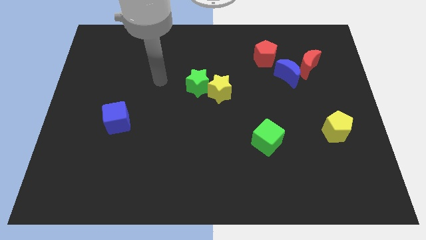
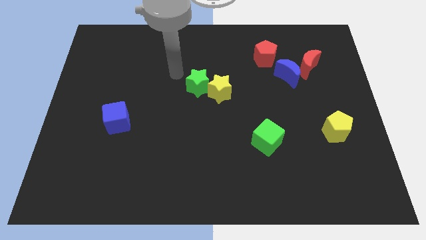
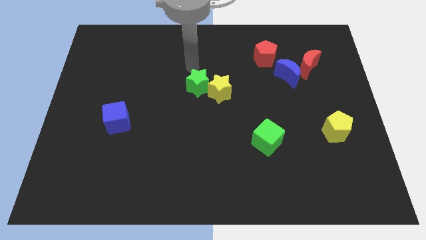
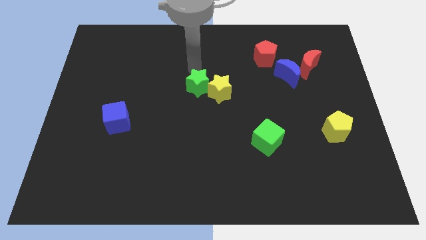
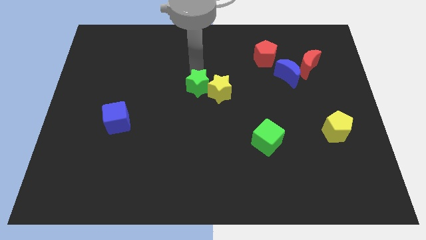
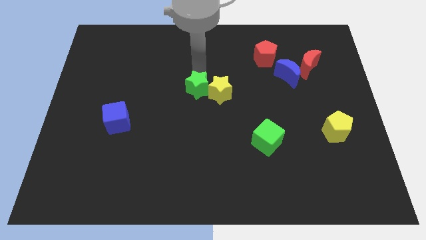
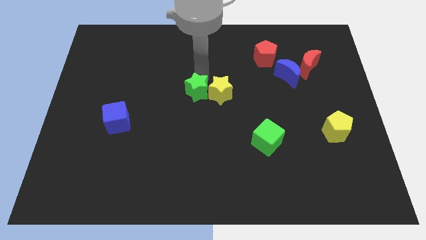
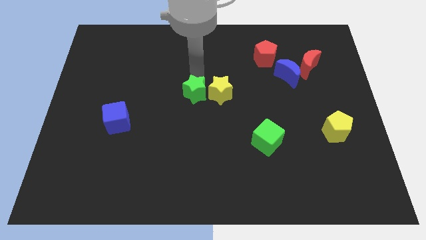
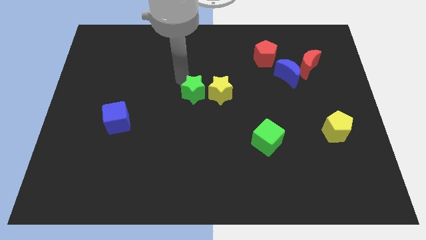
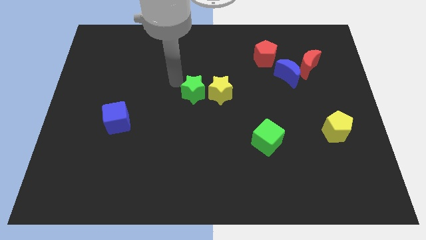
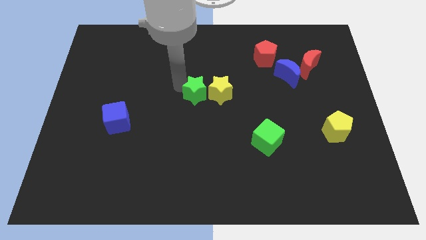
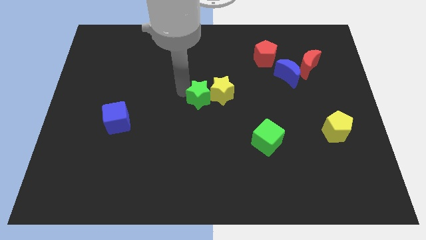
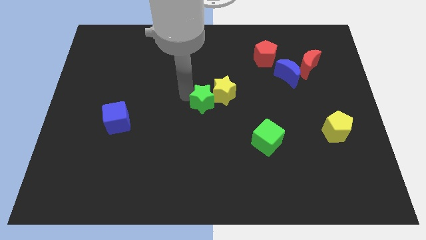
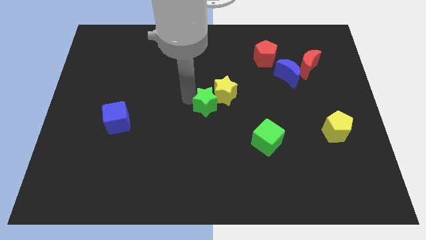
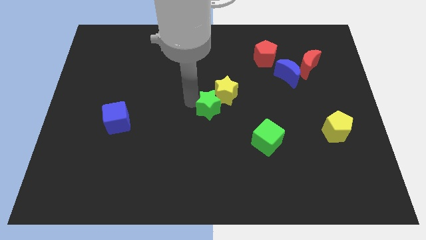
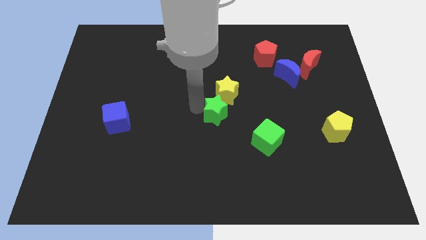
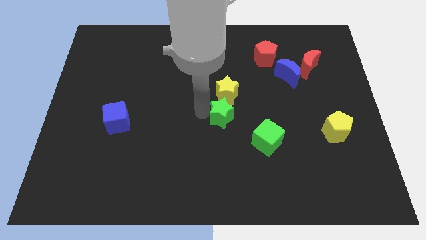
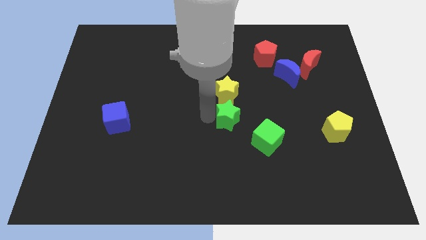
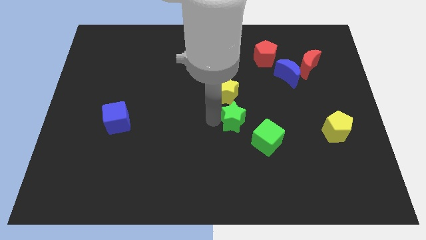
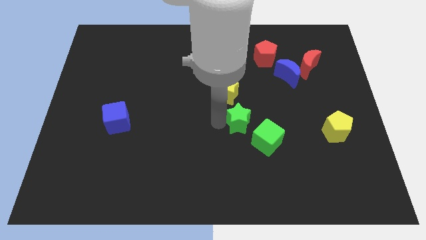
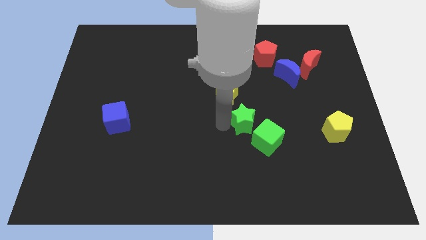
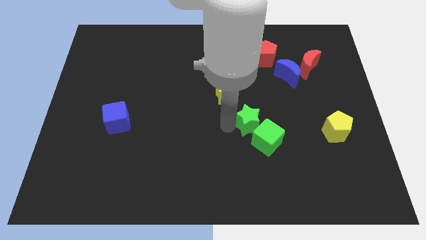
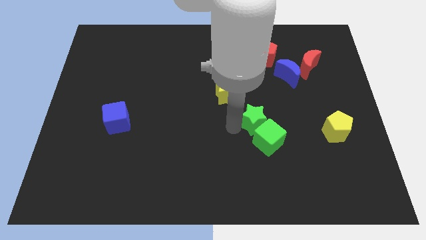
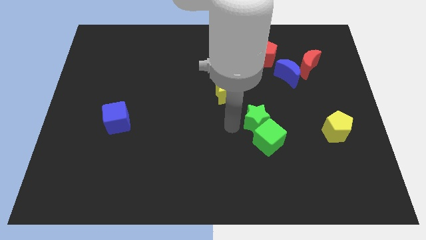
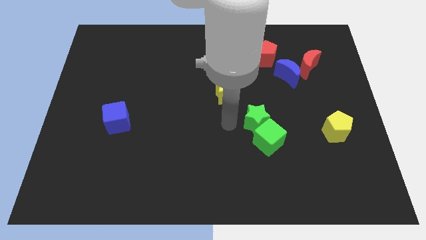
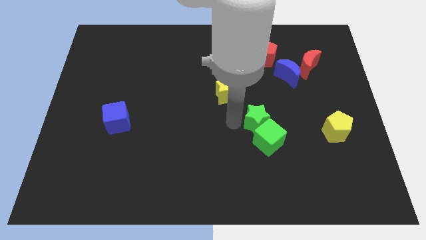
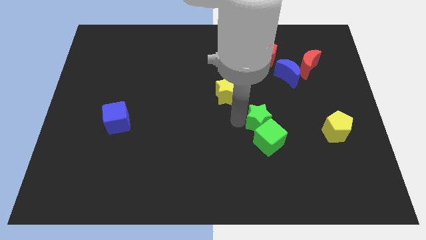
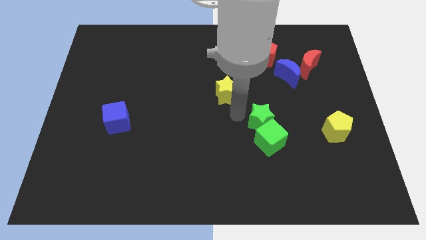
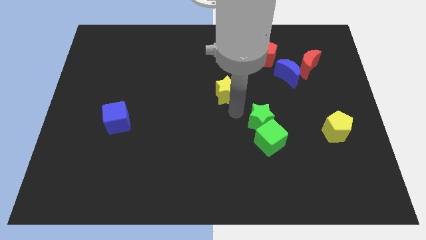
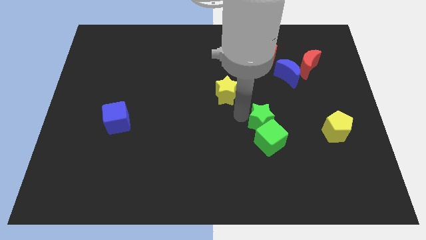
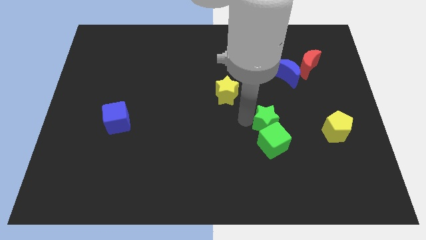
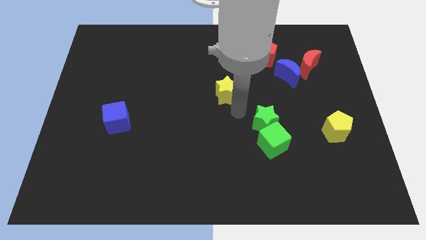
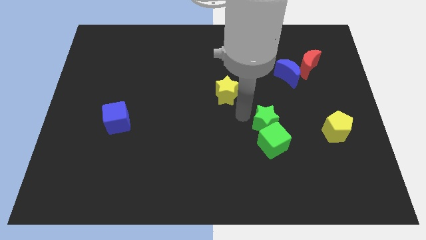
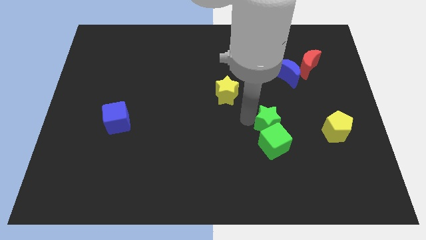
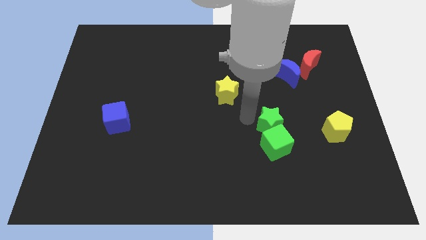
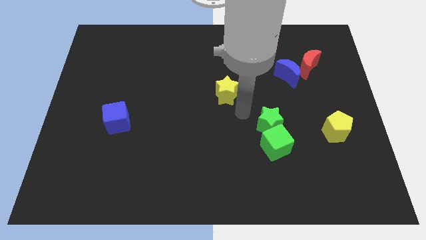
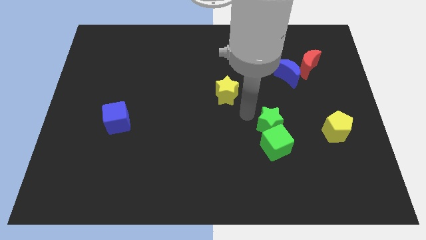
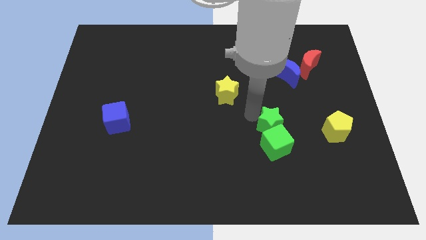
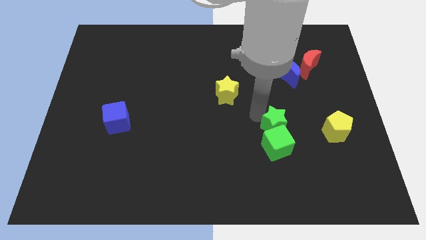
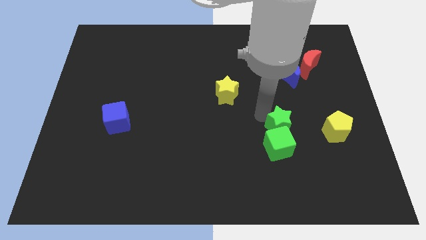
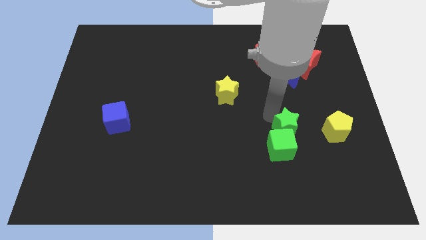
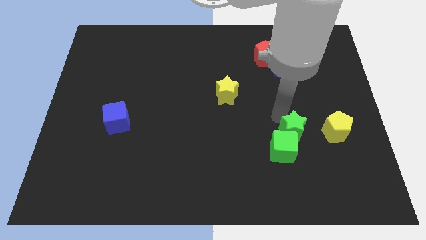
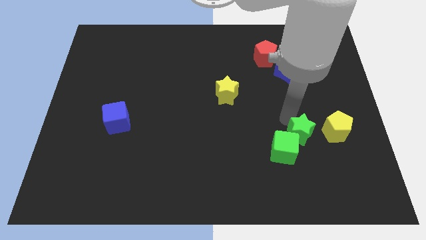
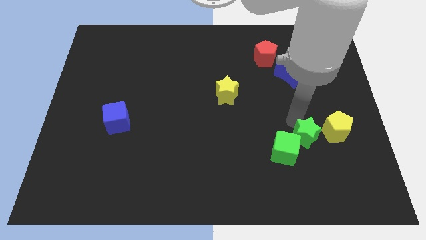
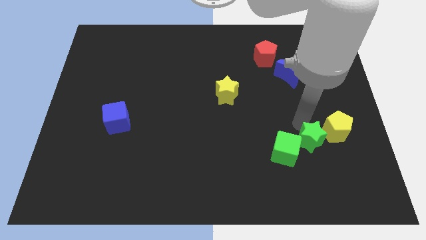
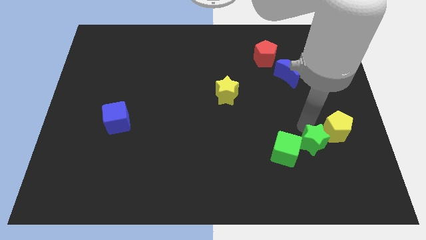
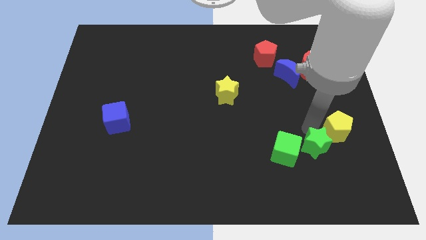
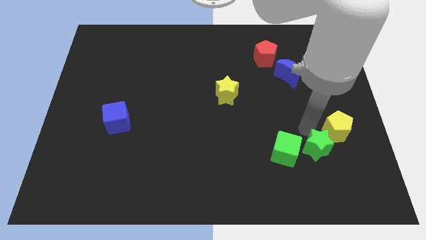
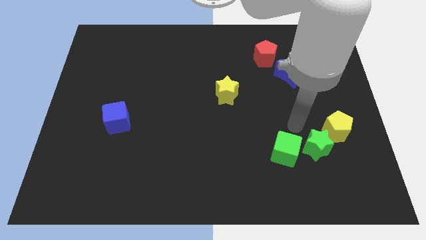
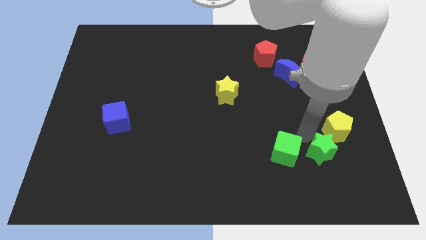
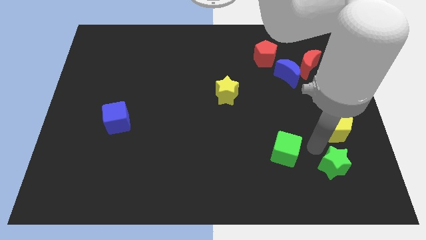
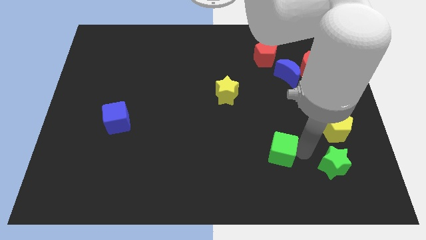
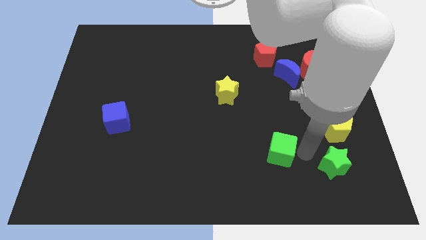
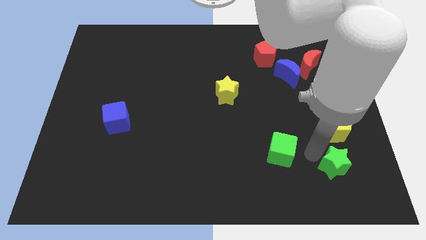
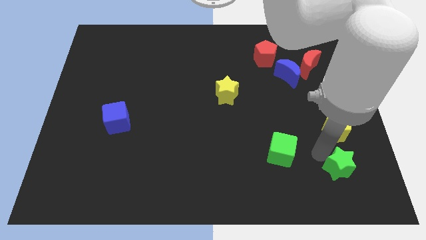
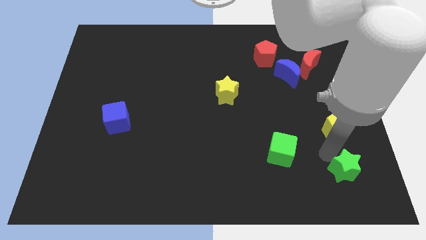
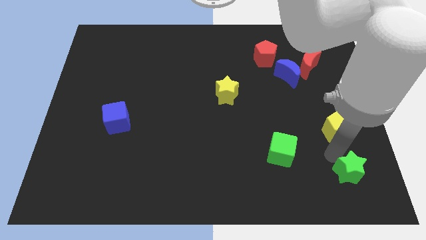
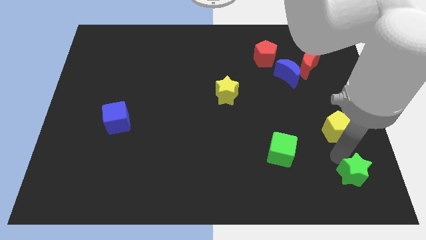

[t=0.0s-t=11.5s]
put the green star to the lower right corner

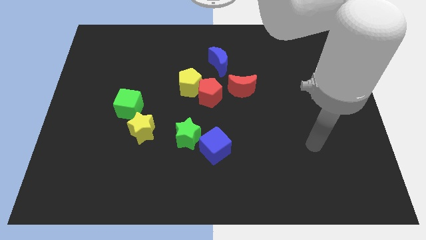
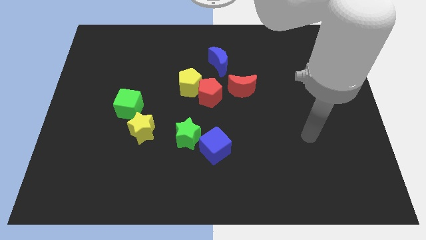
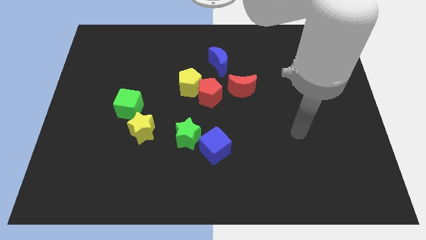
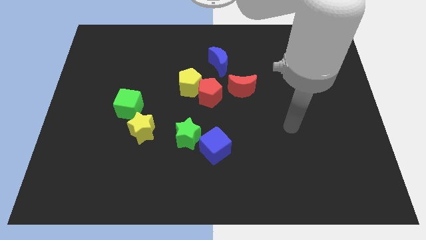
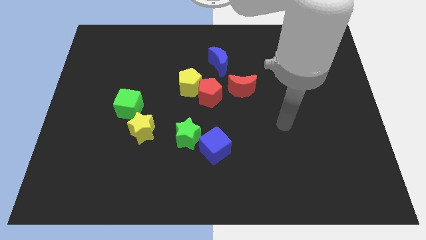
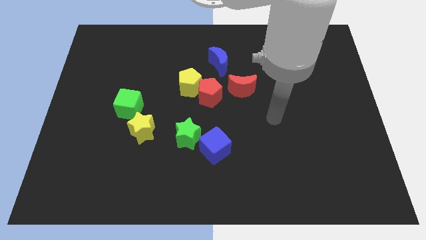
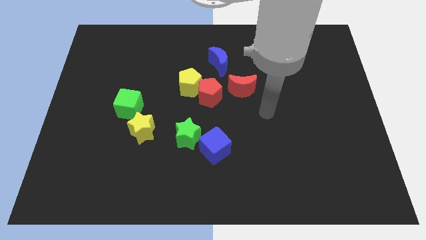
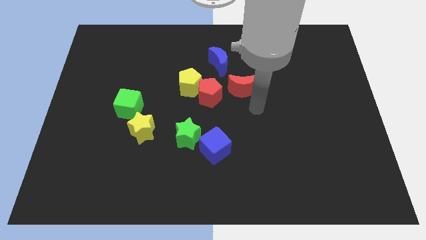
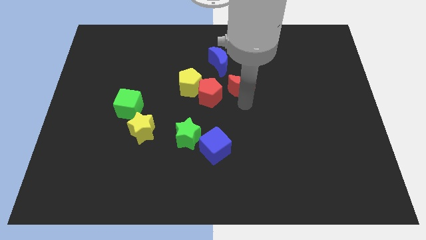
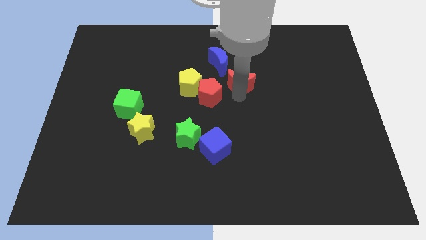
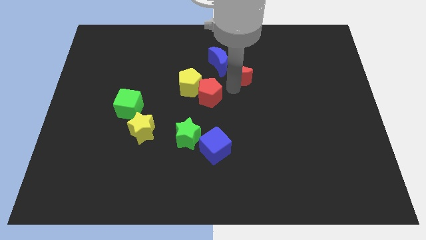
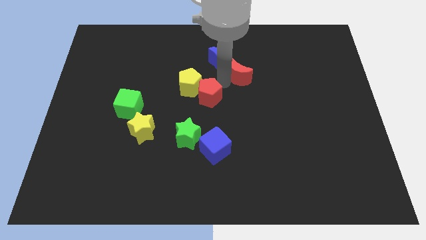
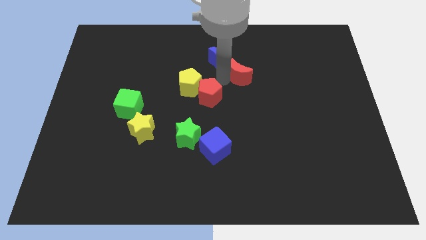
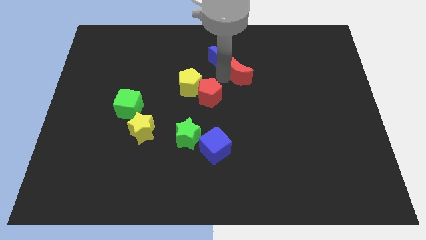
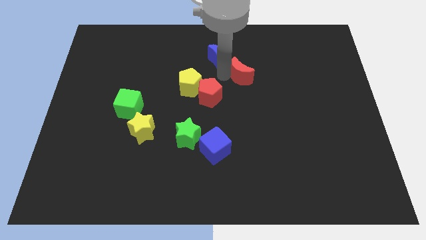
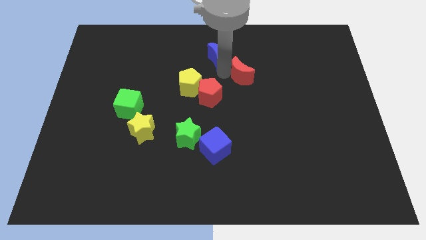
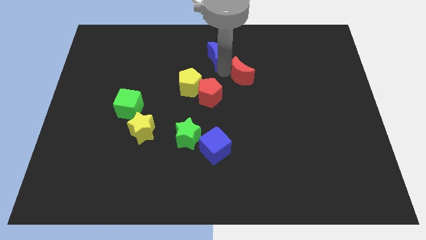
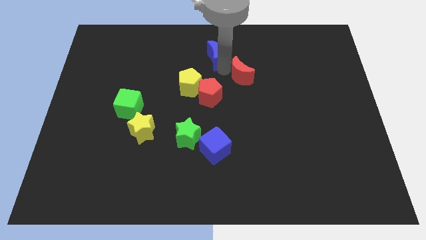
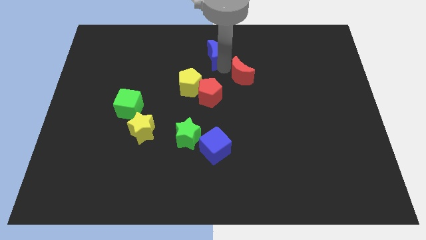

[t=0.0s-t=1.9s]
slide the blue moon to the top side

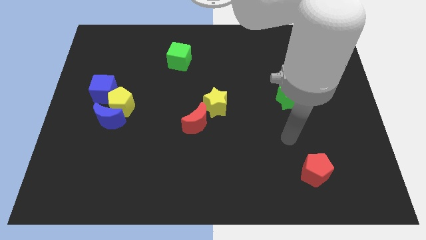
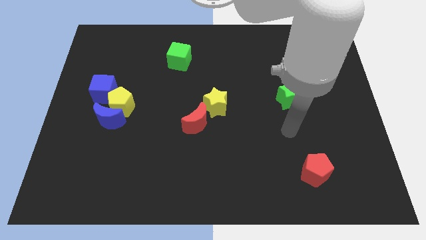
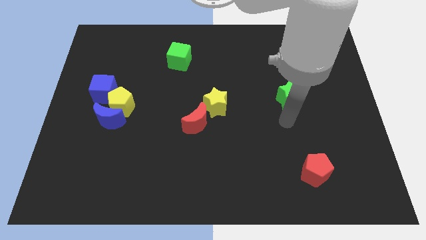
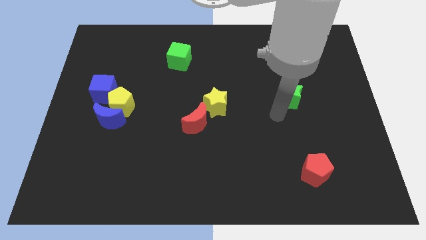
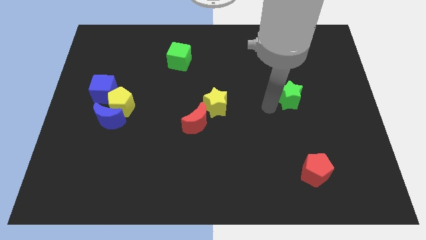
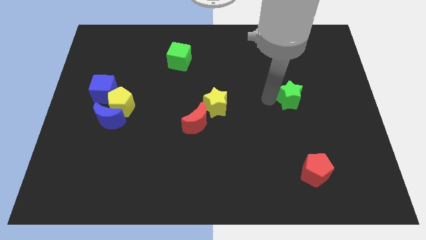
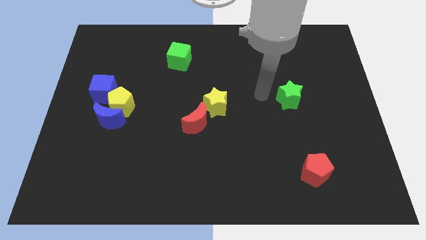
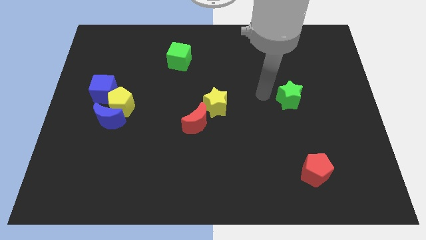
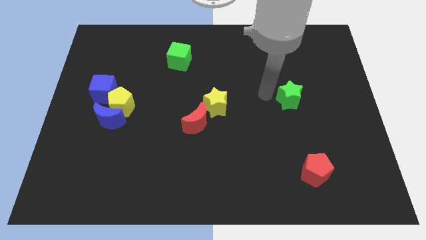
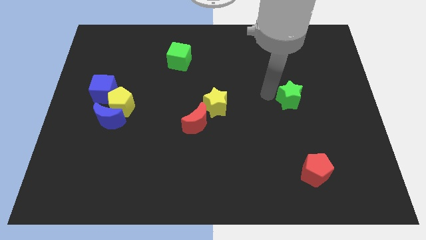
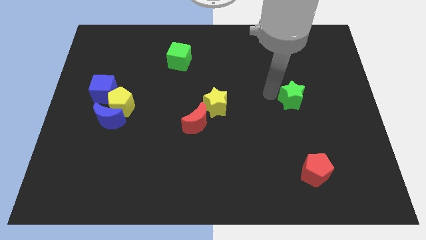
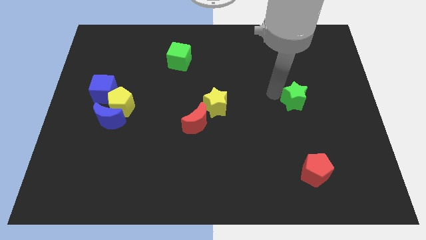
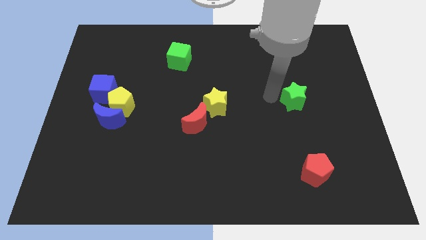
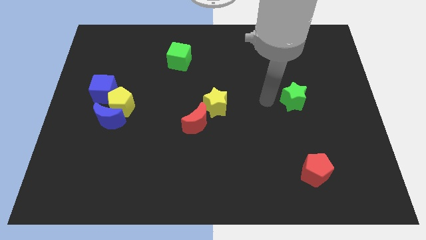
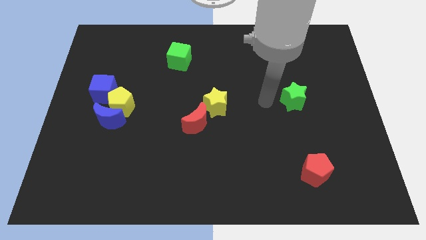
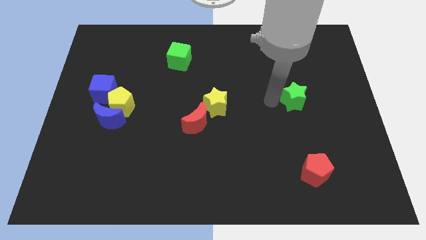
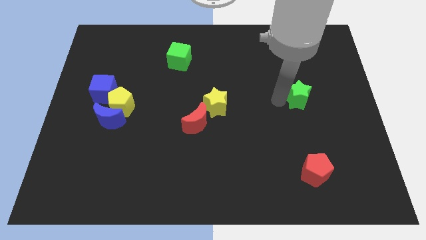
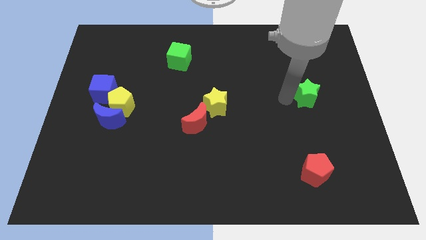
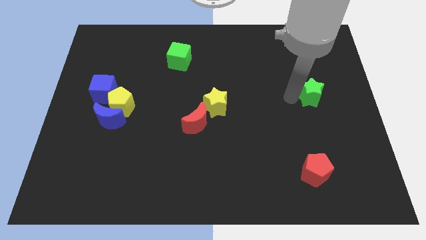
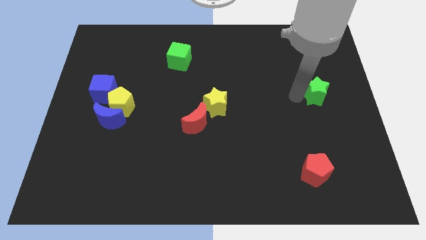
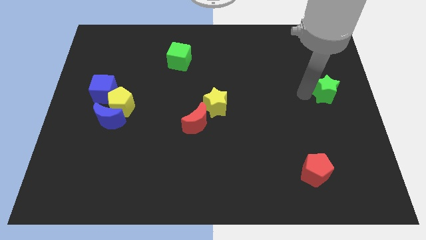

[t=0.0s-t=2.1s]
put the green star to the right side of the board
